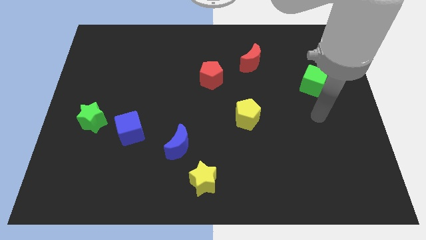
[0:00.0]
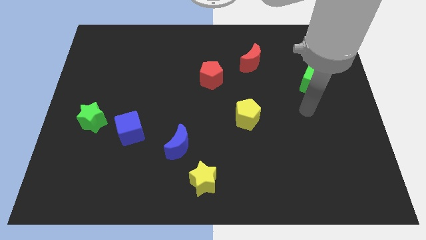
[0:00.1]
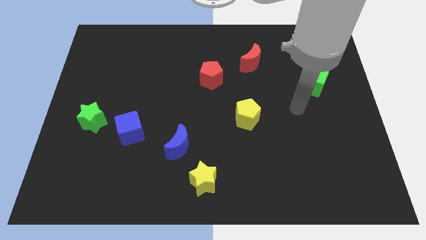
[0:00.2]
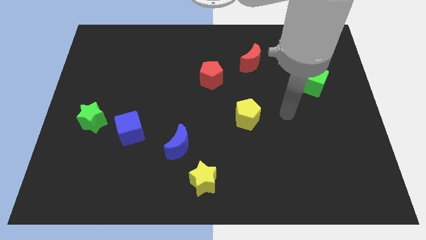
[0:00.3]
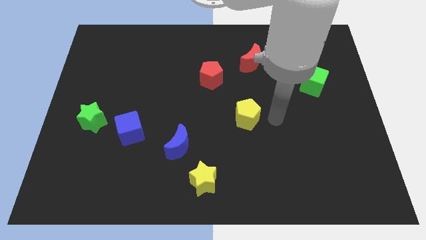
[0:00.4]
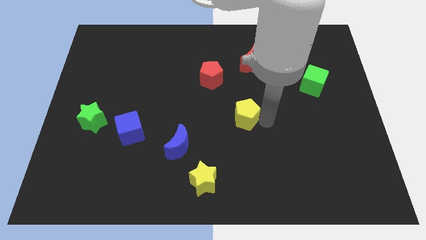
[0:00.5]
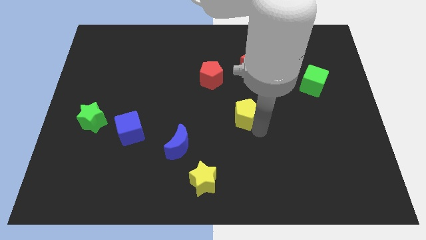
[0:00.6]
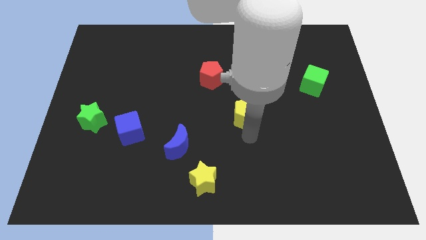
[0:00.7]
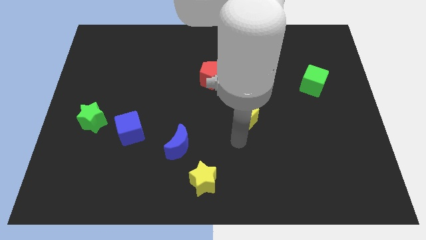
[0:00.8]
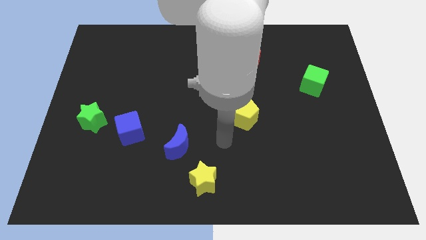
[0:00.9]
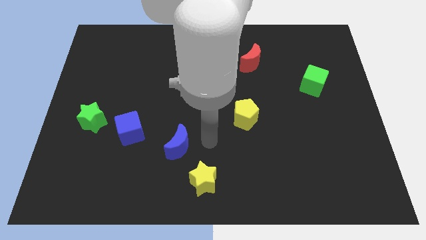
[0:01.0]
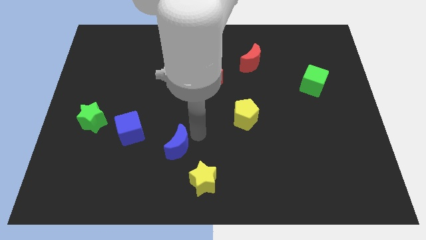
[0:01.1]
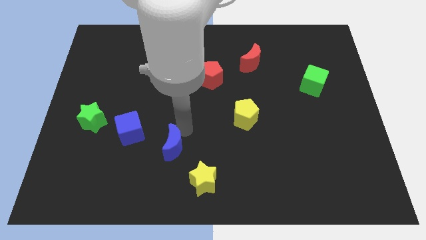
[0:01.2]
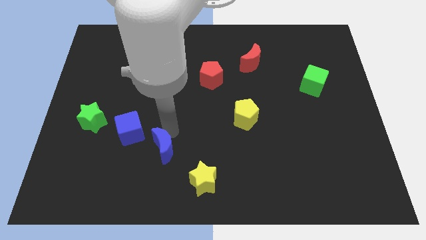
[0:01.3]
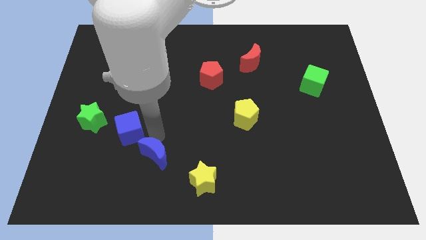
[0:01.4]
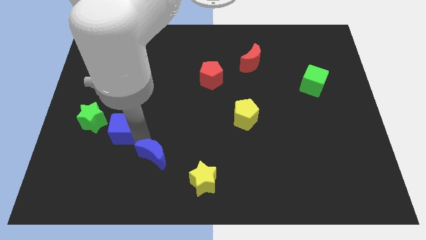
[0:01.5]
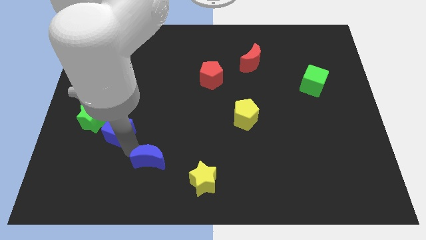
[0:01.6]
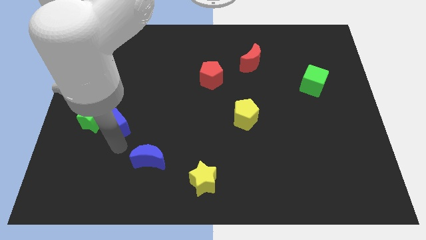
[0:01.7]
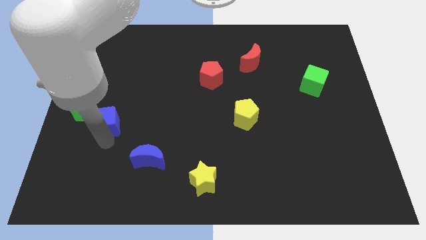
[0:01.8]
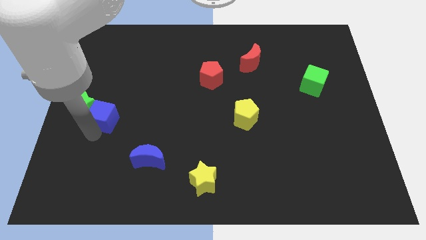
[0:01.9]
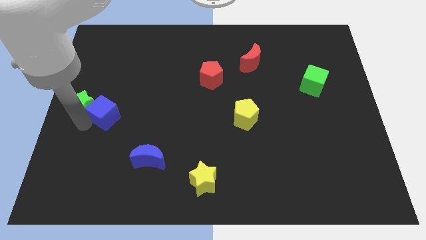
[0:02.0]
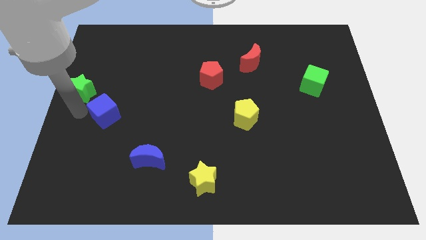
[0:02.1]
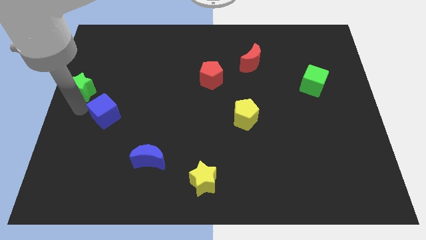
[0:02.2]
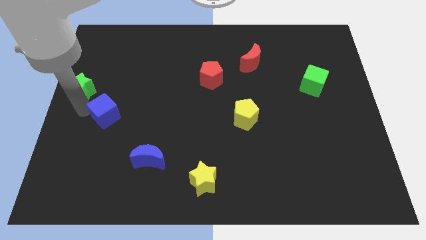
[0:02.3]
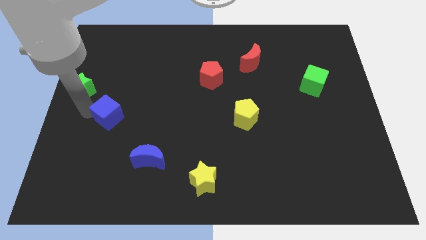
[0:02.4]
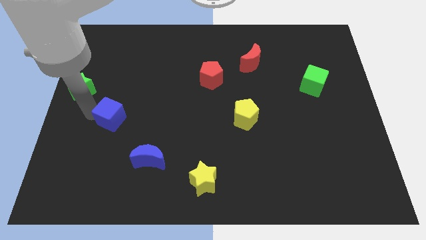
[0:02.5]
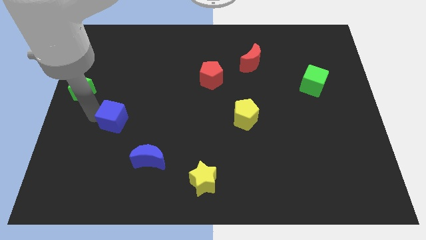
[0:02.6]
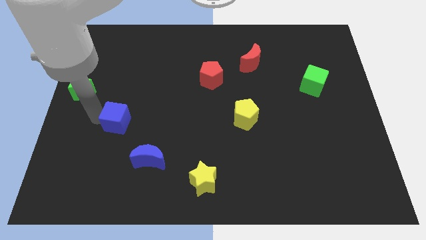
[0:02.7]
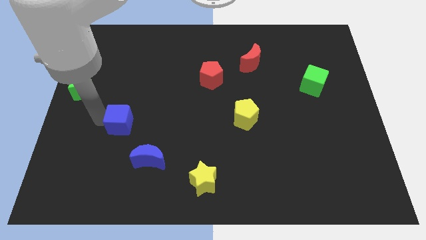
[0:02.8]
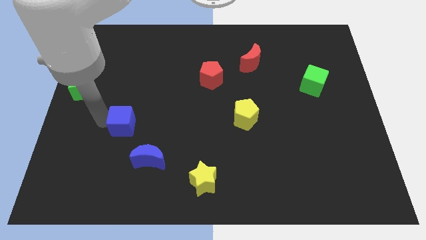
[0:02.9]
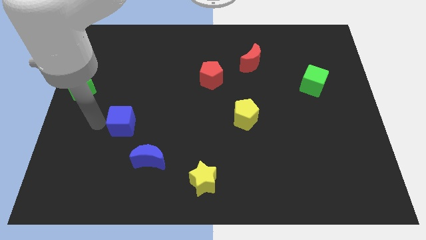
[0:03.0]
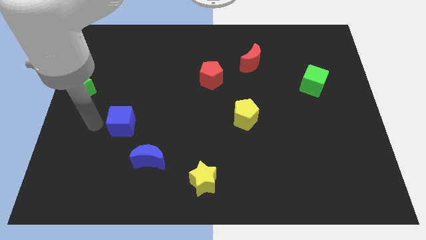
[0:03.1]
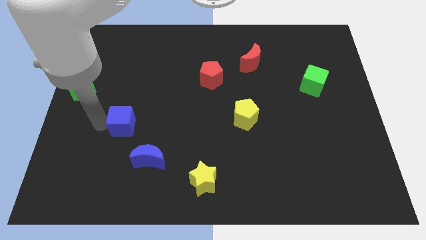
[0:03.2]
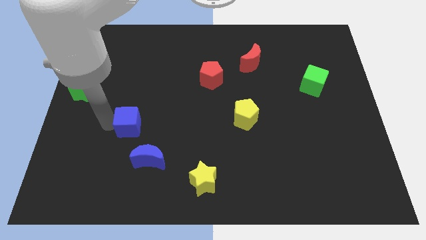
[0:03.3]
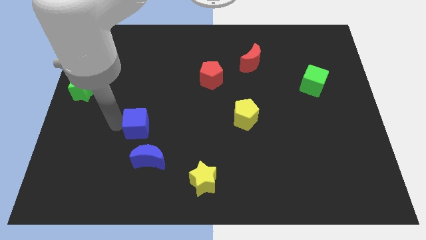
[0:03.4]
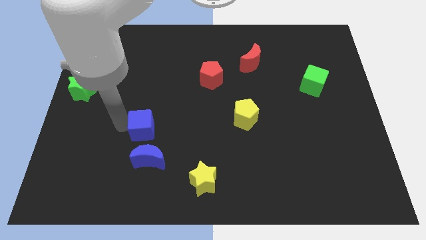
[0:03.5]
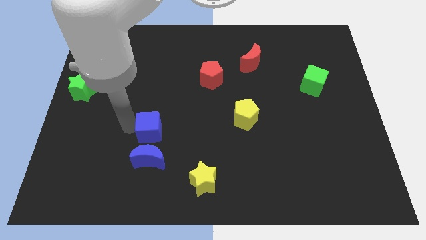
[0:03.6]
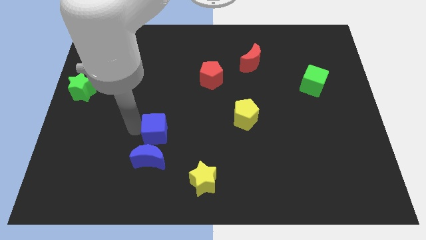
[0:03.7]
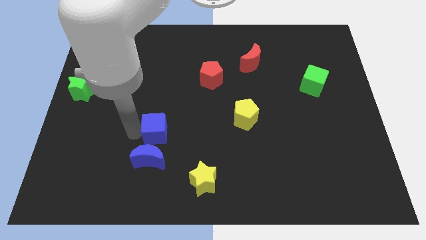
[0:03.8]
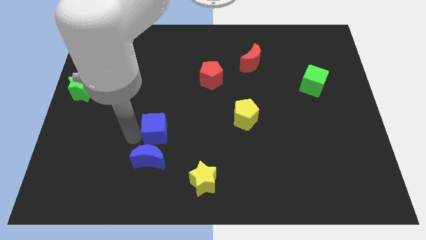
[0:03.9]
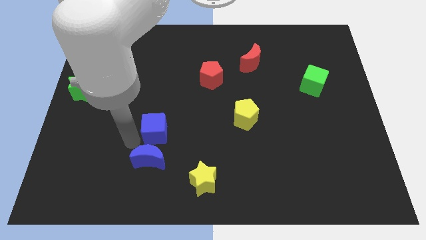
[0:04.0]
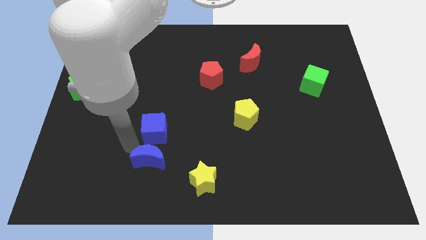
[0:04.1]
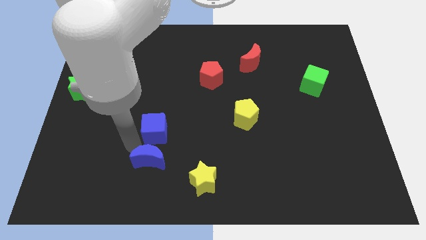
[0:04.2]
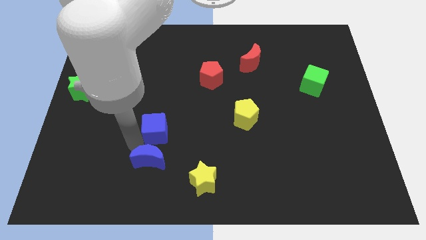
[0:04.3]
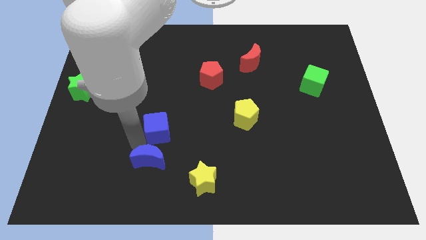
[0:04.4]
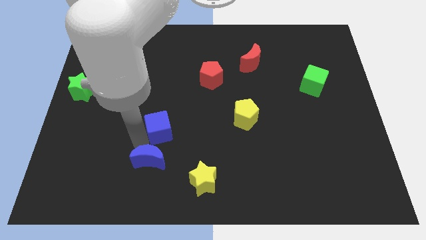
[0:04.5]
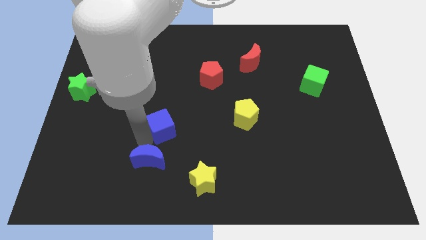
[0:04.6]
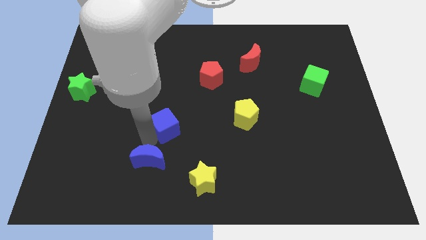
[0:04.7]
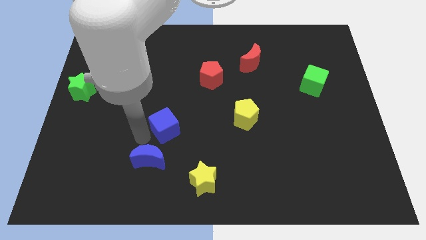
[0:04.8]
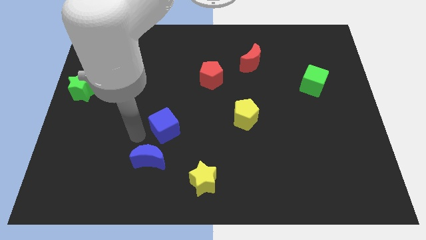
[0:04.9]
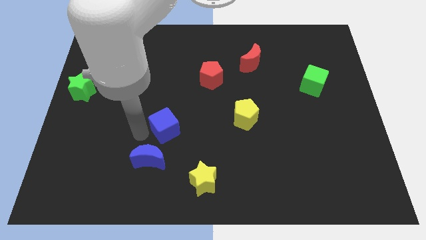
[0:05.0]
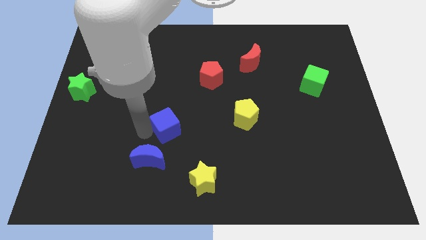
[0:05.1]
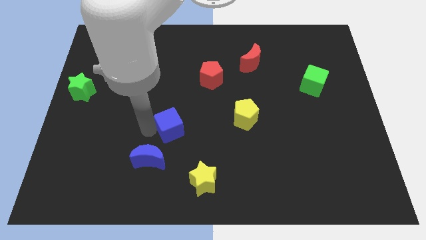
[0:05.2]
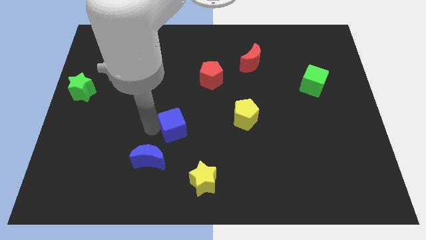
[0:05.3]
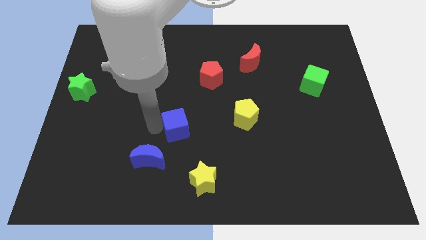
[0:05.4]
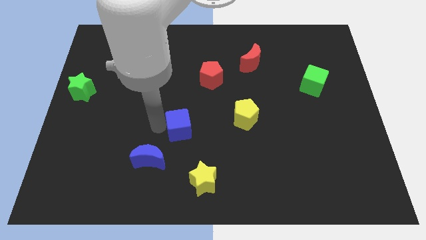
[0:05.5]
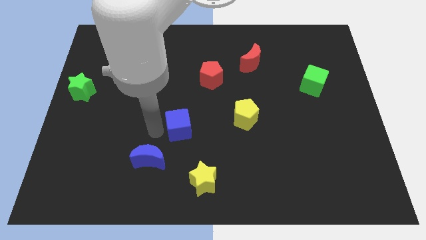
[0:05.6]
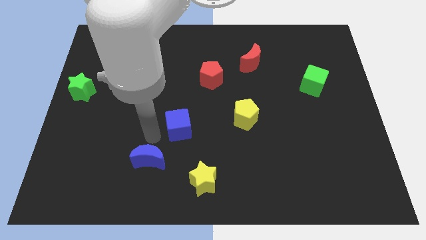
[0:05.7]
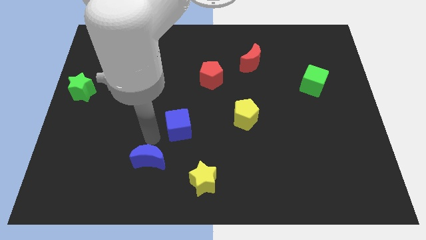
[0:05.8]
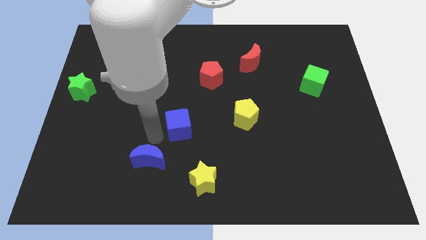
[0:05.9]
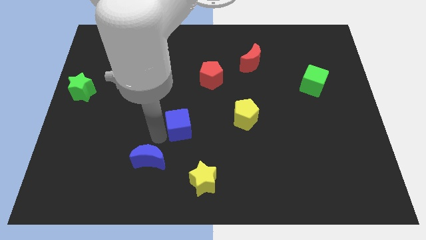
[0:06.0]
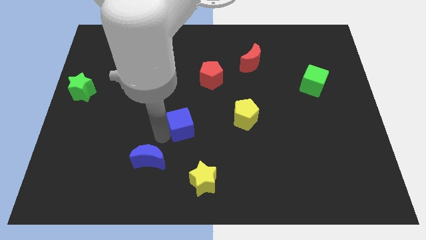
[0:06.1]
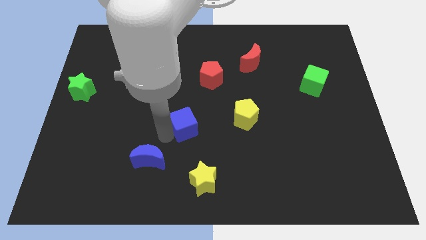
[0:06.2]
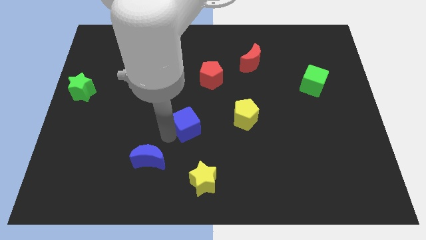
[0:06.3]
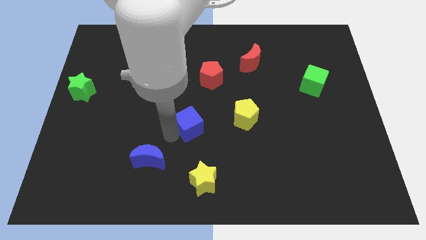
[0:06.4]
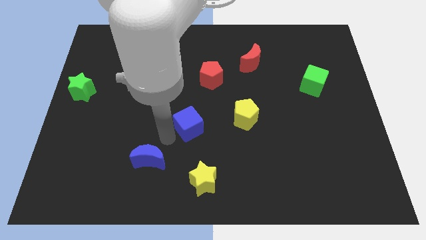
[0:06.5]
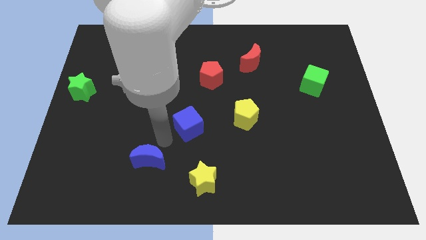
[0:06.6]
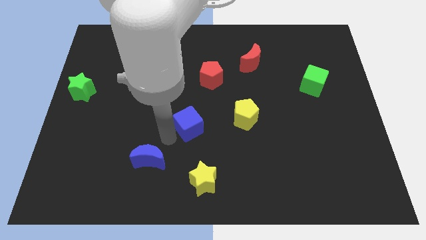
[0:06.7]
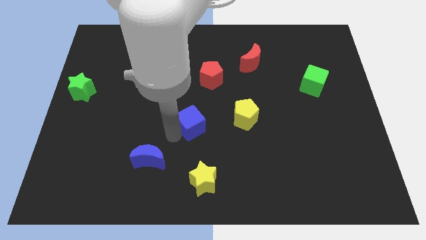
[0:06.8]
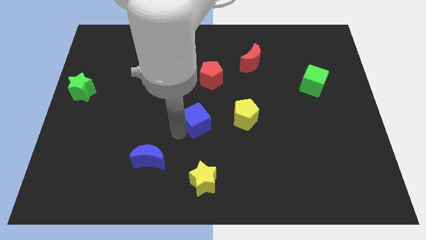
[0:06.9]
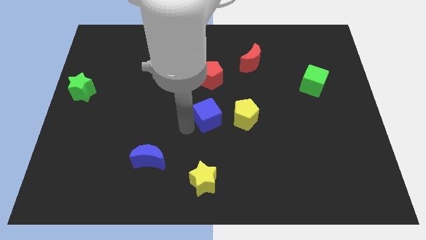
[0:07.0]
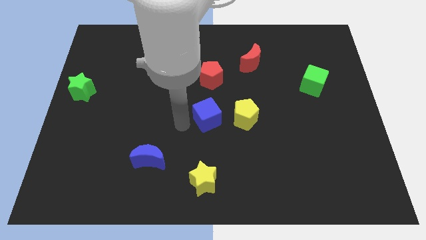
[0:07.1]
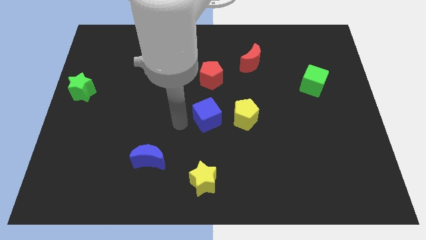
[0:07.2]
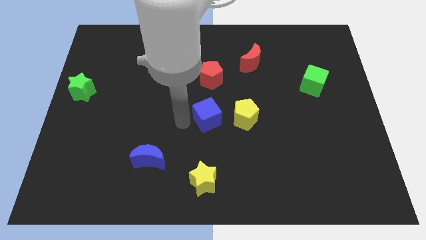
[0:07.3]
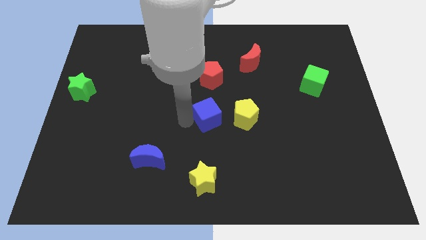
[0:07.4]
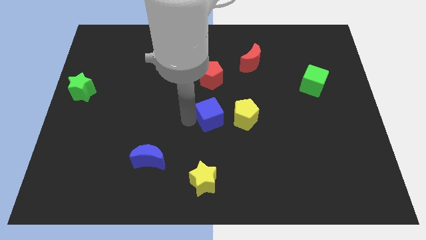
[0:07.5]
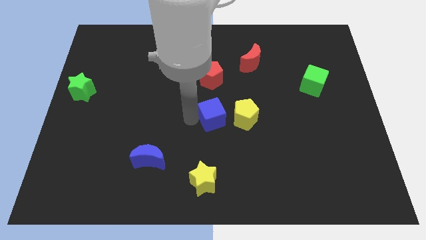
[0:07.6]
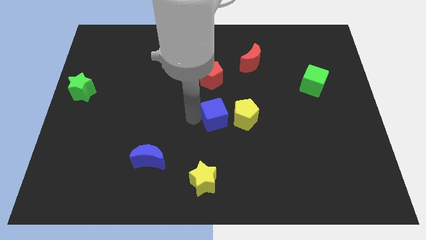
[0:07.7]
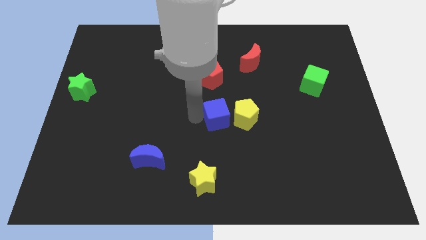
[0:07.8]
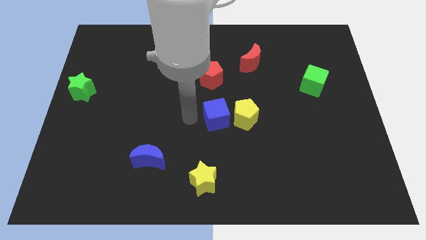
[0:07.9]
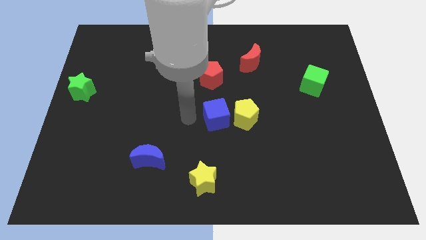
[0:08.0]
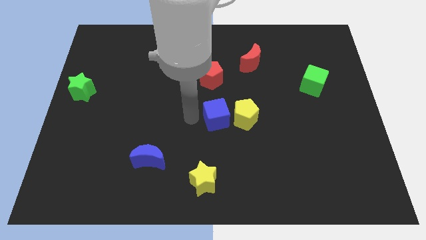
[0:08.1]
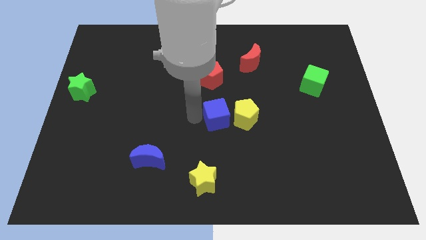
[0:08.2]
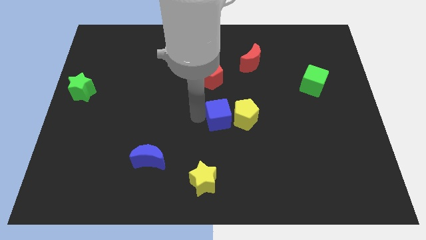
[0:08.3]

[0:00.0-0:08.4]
put the blue cube towards the yellow pentagon
